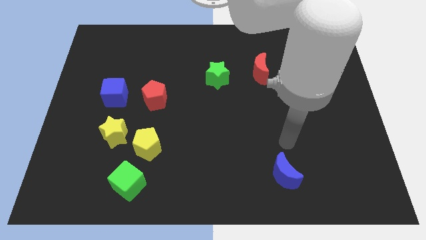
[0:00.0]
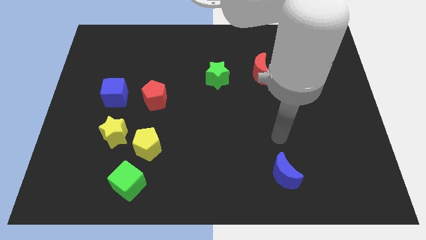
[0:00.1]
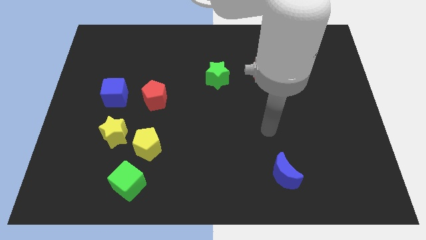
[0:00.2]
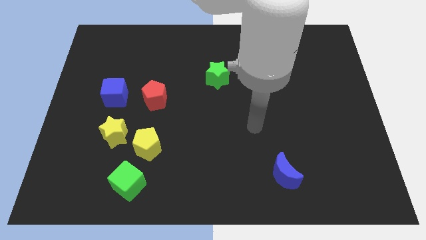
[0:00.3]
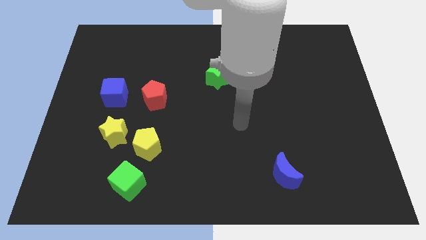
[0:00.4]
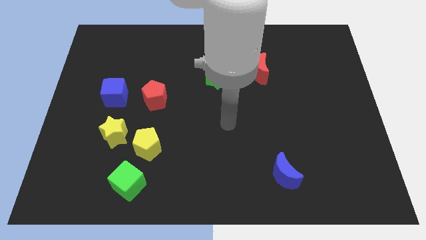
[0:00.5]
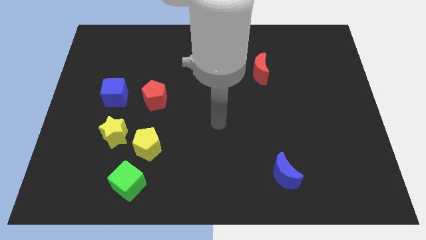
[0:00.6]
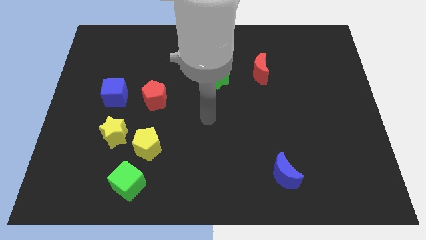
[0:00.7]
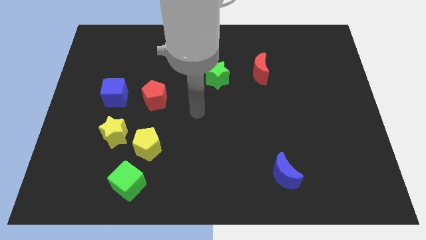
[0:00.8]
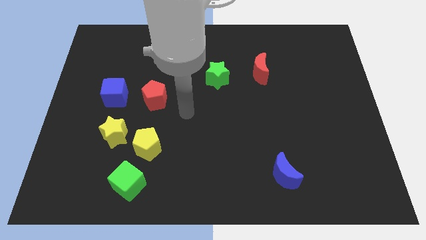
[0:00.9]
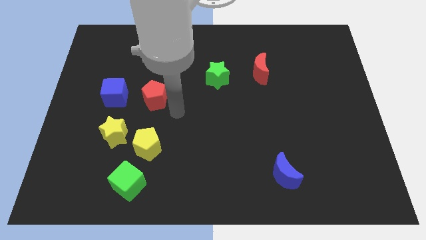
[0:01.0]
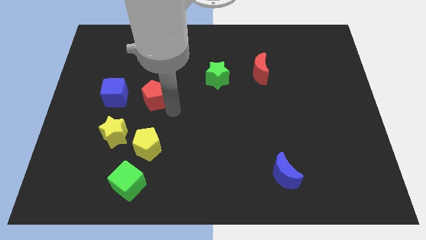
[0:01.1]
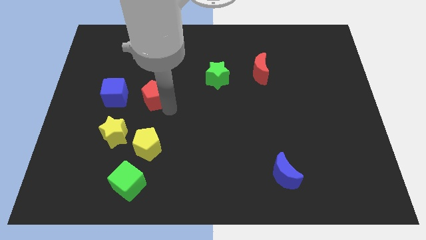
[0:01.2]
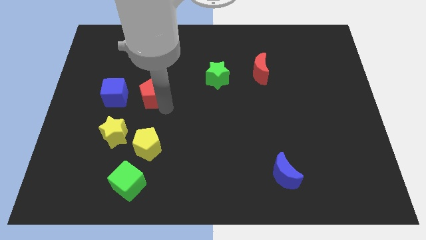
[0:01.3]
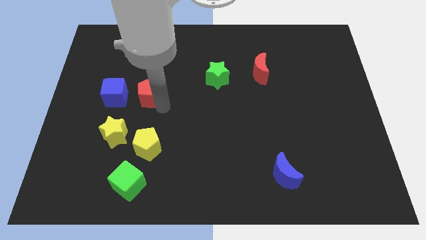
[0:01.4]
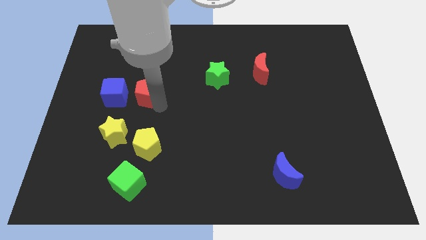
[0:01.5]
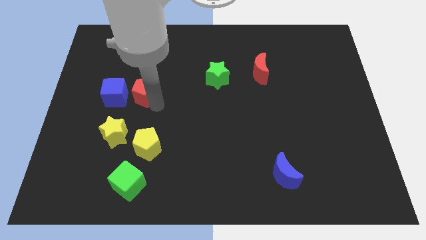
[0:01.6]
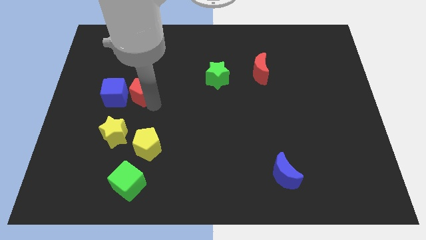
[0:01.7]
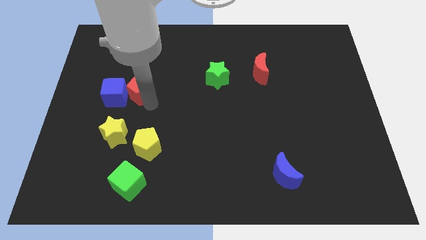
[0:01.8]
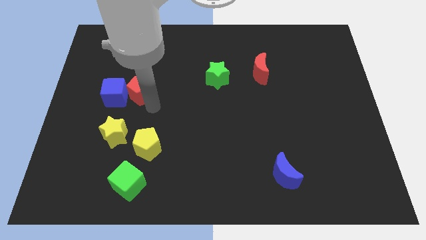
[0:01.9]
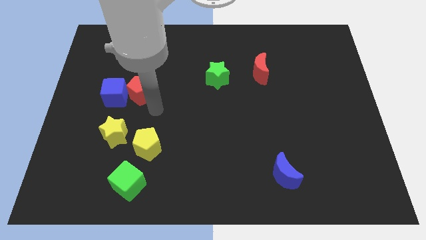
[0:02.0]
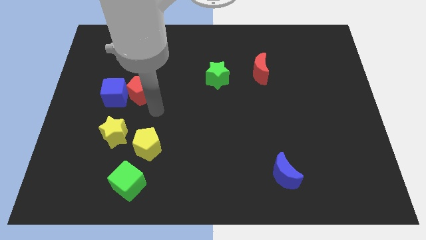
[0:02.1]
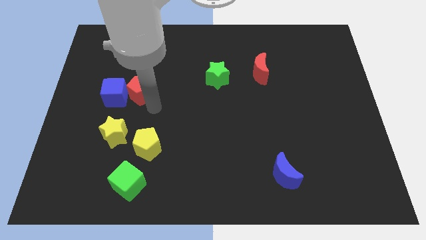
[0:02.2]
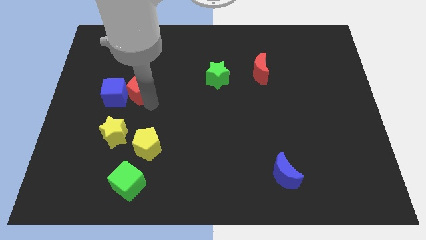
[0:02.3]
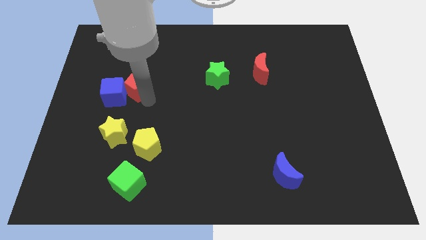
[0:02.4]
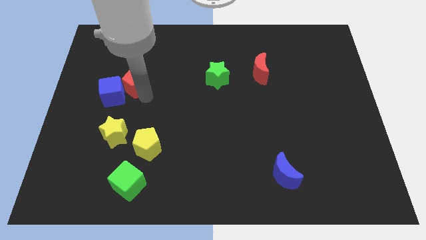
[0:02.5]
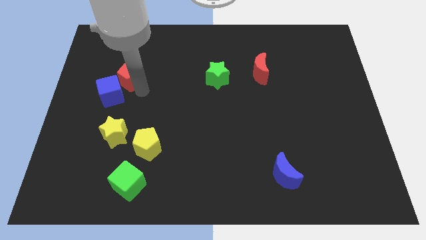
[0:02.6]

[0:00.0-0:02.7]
push the red pentagon a bit up and then to the left

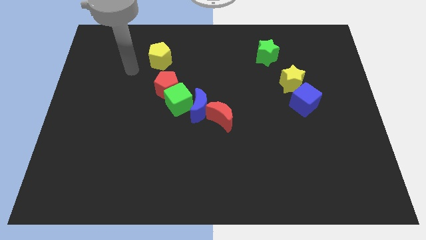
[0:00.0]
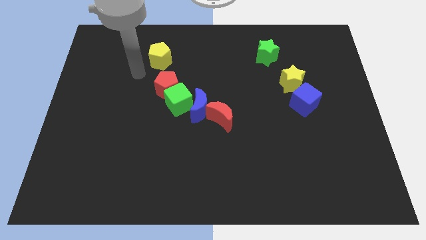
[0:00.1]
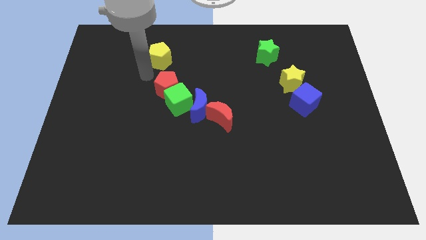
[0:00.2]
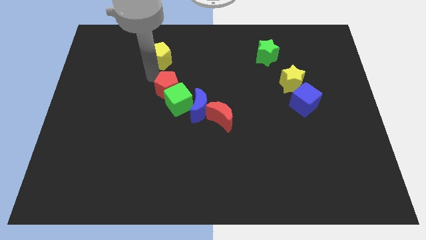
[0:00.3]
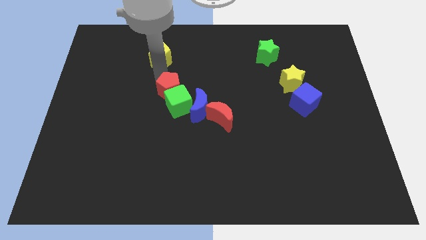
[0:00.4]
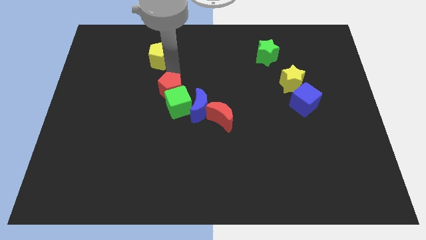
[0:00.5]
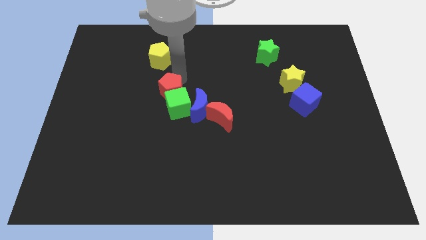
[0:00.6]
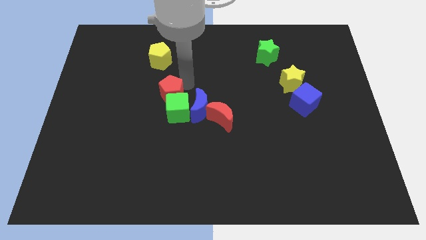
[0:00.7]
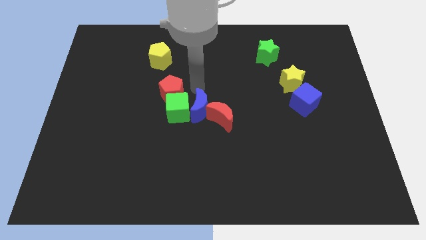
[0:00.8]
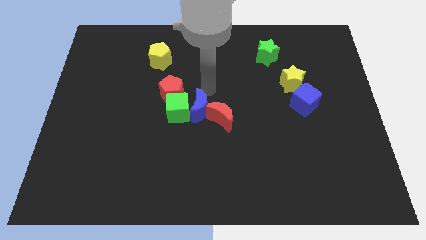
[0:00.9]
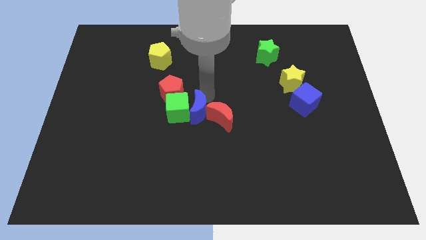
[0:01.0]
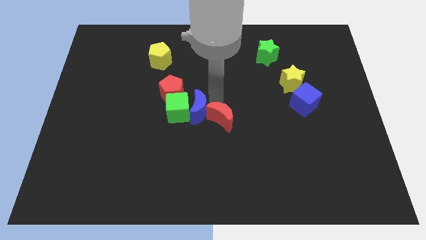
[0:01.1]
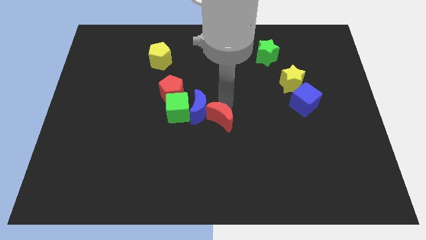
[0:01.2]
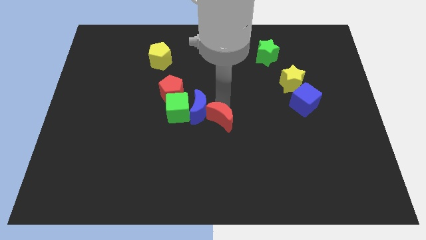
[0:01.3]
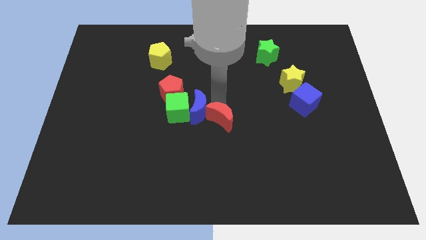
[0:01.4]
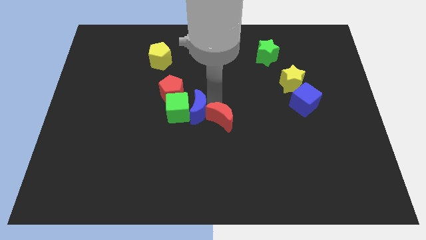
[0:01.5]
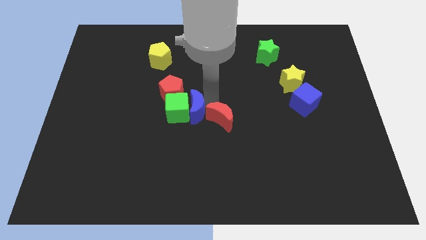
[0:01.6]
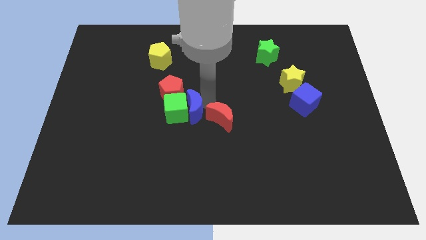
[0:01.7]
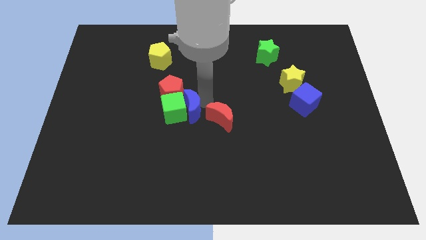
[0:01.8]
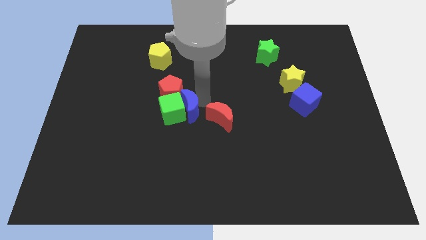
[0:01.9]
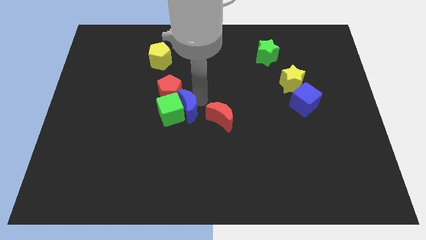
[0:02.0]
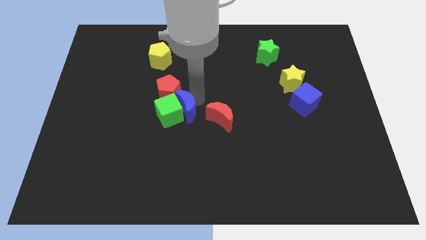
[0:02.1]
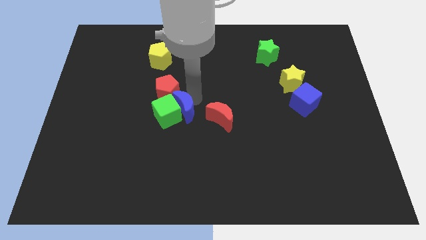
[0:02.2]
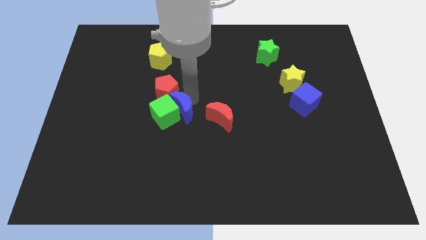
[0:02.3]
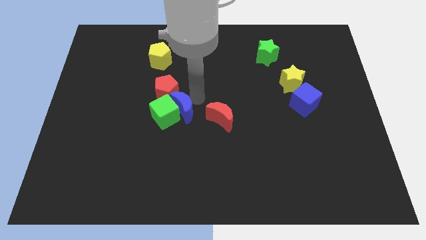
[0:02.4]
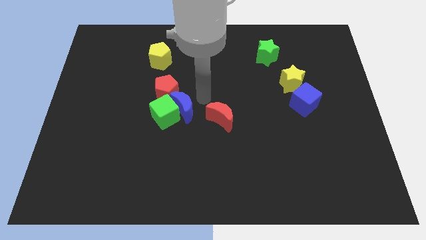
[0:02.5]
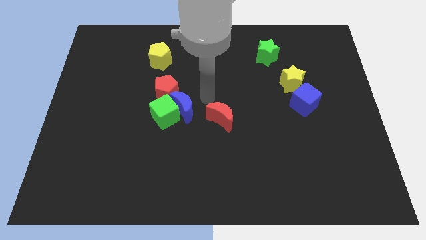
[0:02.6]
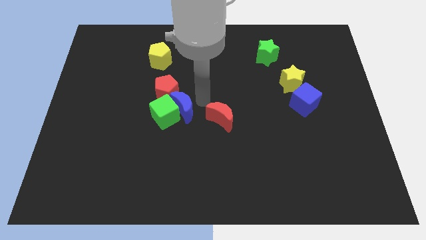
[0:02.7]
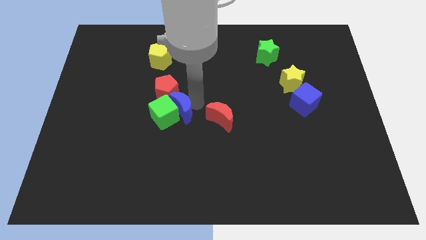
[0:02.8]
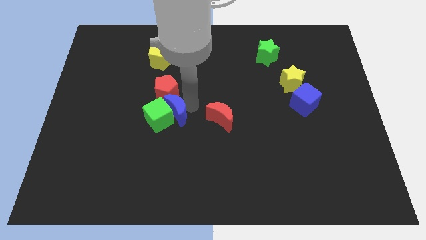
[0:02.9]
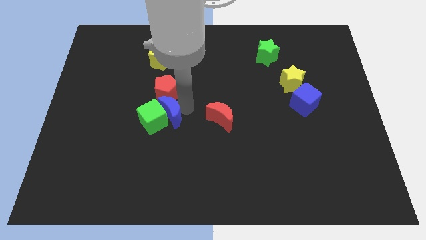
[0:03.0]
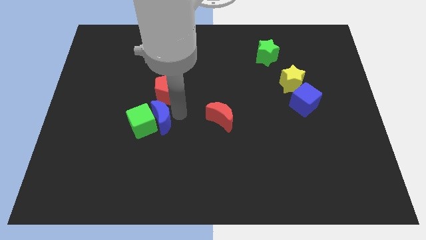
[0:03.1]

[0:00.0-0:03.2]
slightly push the blue moon left

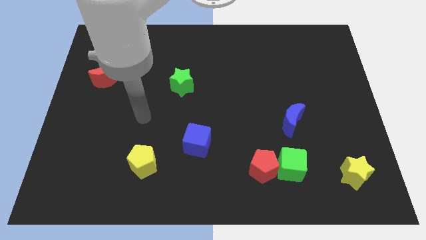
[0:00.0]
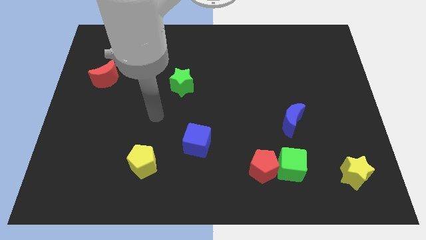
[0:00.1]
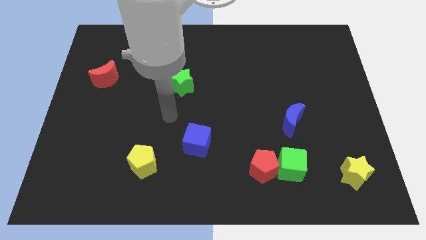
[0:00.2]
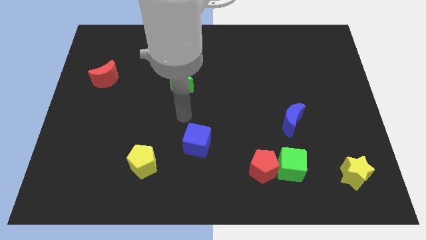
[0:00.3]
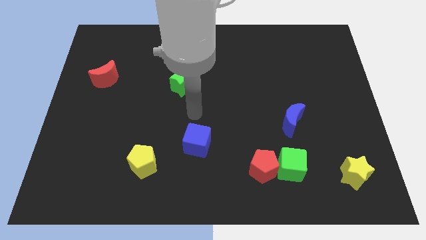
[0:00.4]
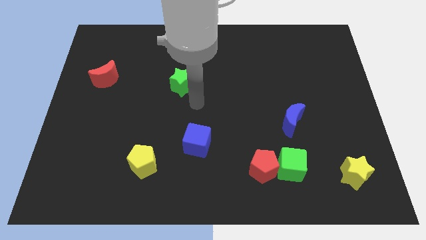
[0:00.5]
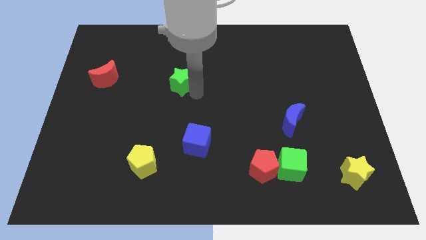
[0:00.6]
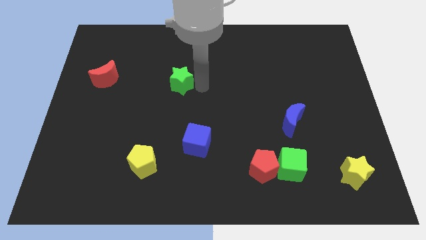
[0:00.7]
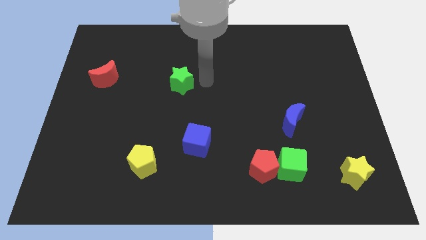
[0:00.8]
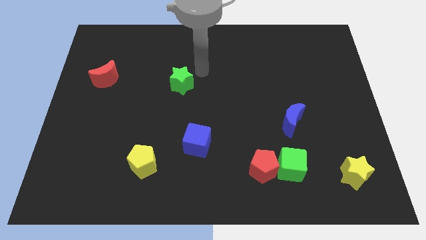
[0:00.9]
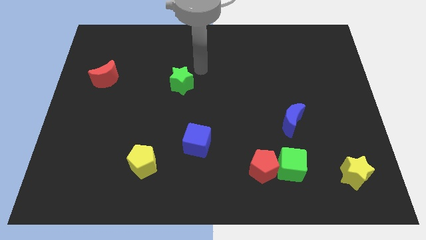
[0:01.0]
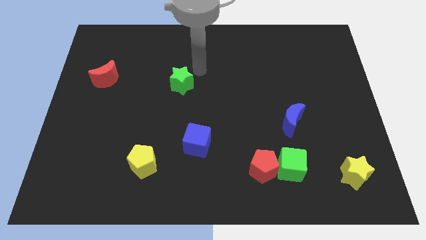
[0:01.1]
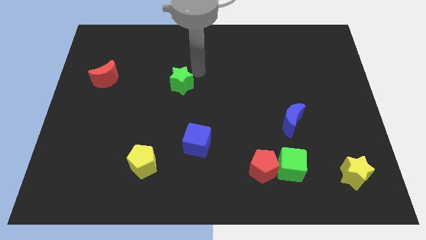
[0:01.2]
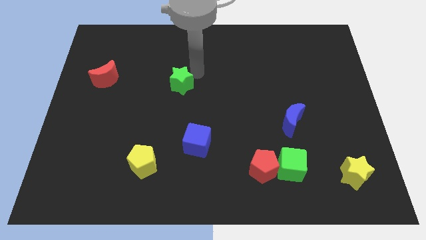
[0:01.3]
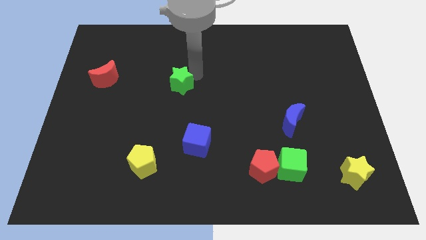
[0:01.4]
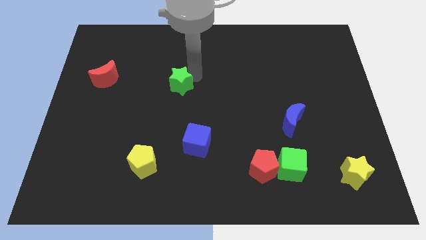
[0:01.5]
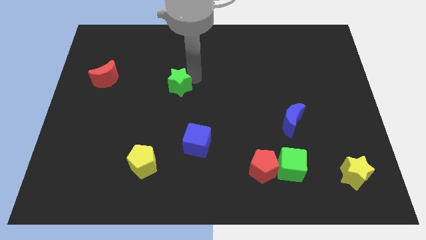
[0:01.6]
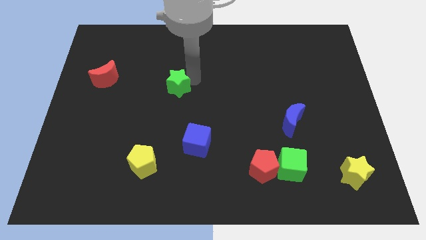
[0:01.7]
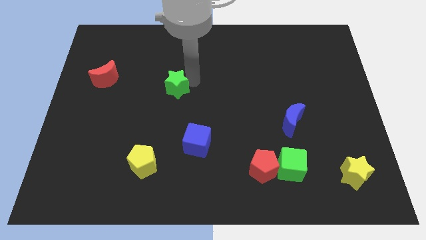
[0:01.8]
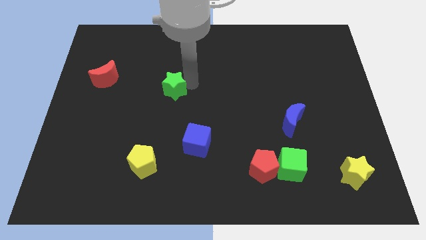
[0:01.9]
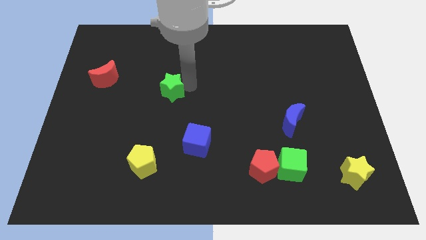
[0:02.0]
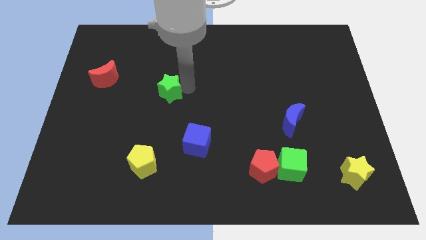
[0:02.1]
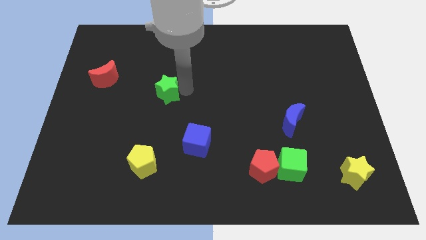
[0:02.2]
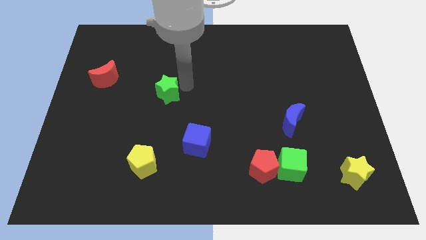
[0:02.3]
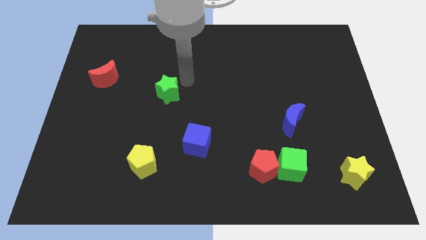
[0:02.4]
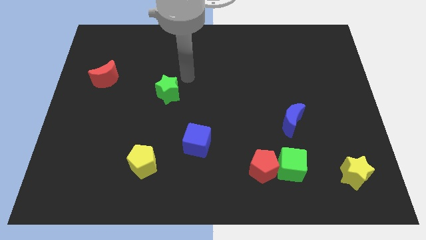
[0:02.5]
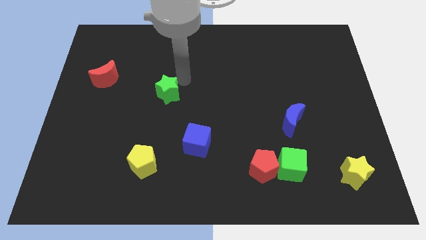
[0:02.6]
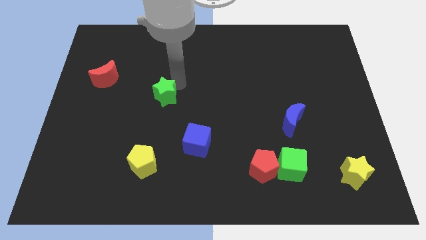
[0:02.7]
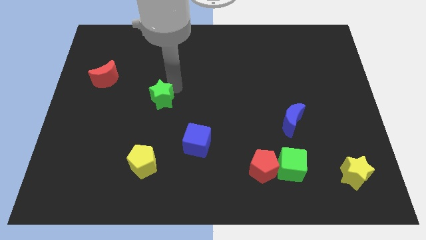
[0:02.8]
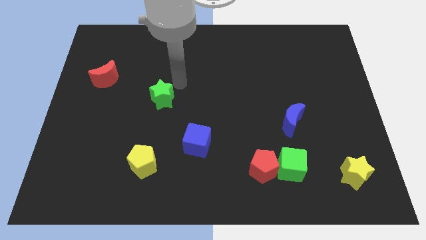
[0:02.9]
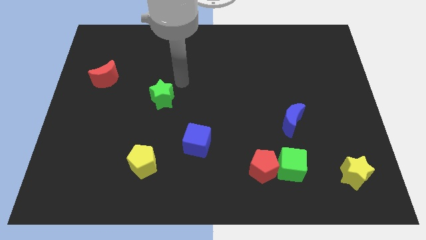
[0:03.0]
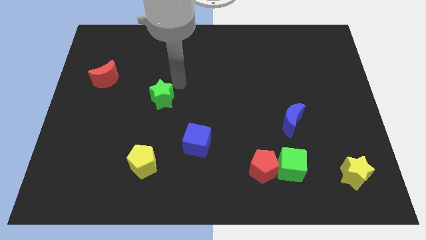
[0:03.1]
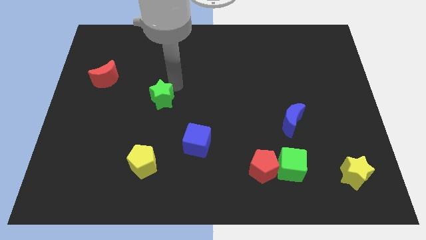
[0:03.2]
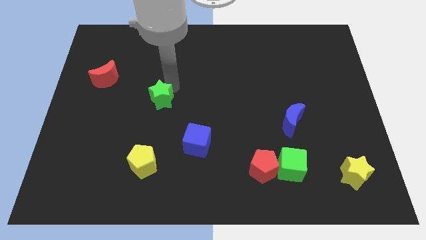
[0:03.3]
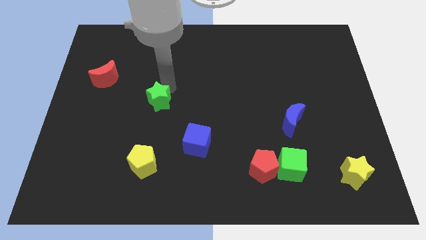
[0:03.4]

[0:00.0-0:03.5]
push the green star down and left somewhat
